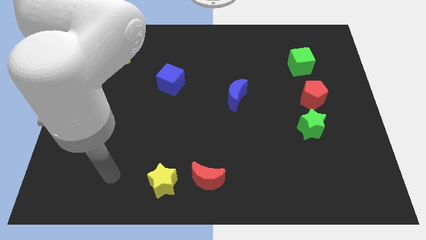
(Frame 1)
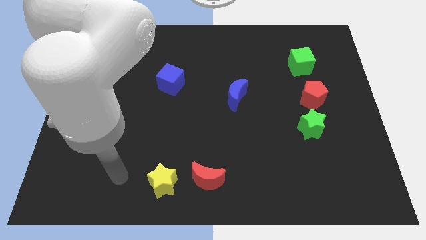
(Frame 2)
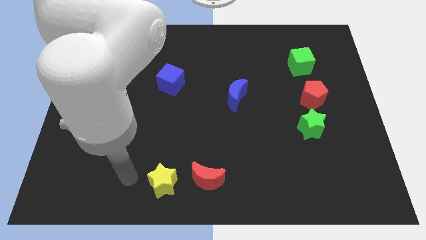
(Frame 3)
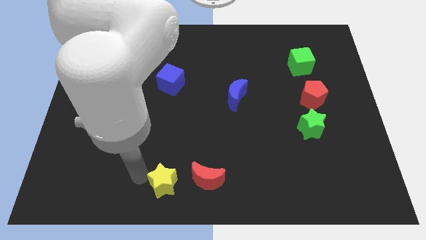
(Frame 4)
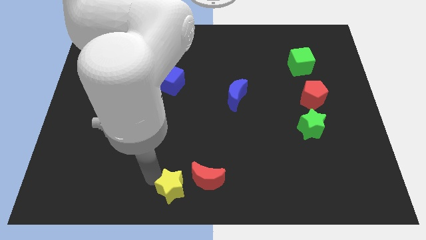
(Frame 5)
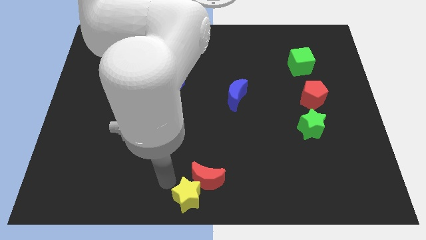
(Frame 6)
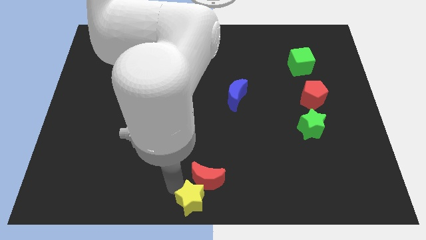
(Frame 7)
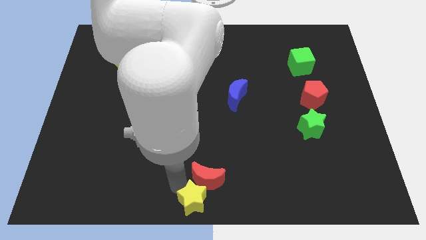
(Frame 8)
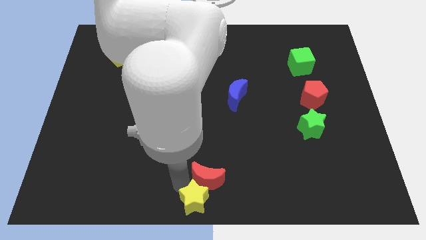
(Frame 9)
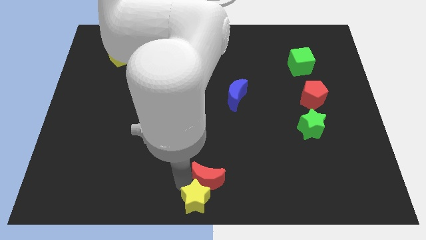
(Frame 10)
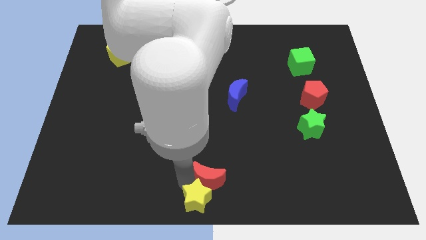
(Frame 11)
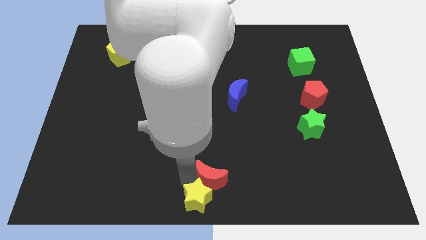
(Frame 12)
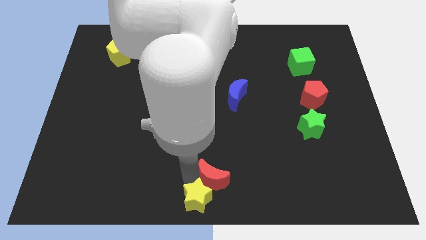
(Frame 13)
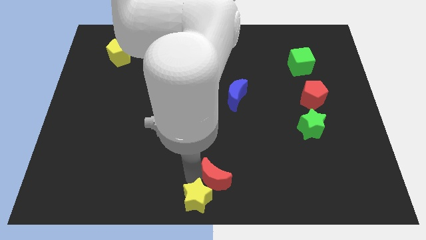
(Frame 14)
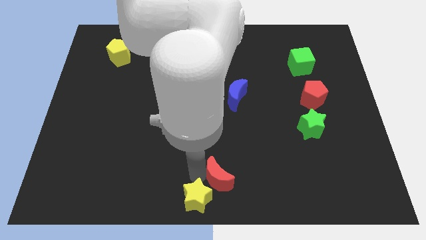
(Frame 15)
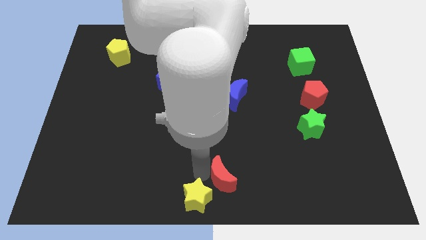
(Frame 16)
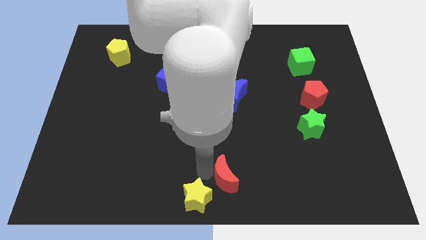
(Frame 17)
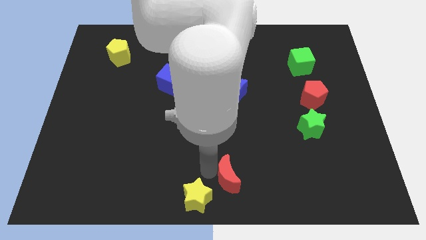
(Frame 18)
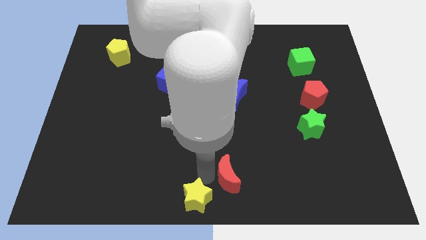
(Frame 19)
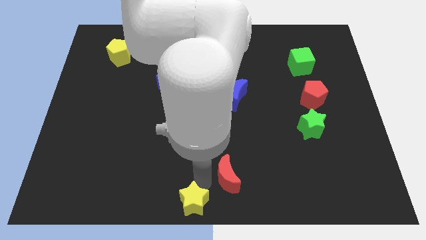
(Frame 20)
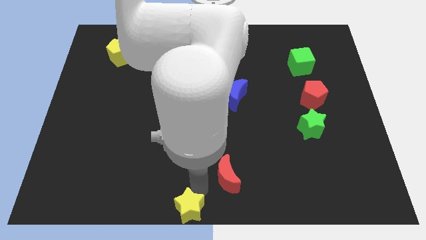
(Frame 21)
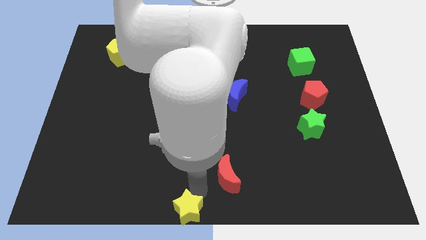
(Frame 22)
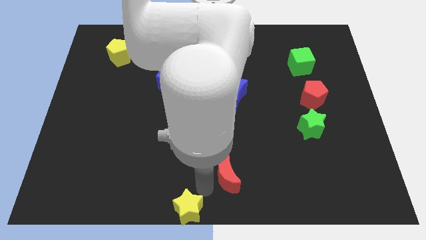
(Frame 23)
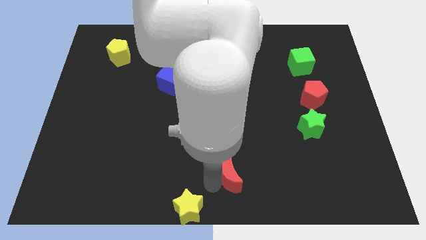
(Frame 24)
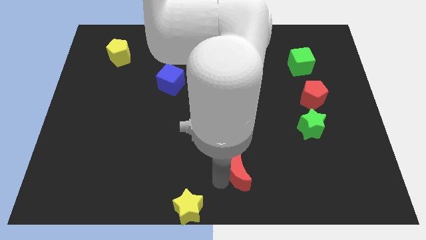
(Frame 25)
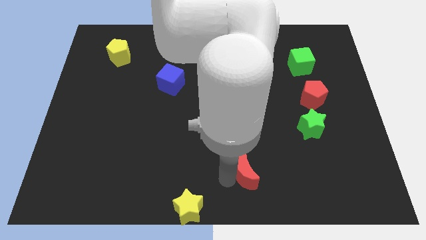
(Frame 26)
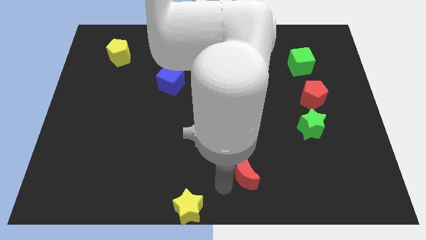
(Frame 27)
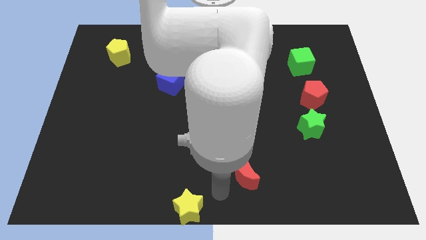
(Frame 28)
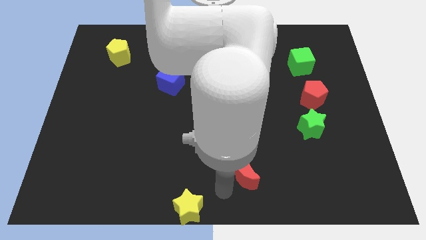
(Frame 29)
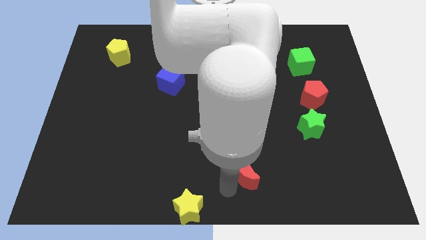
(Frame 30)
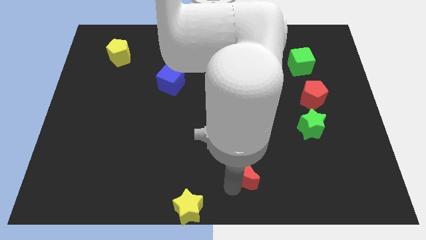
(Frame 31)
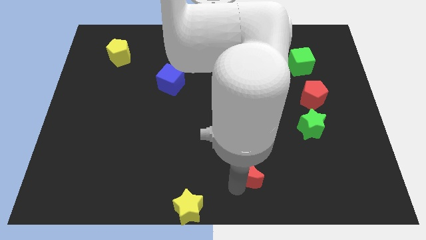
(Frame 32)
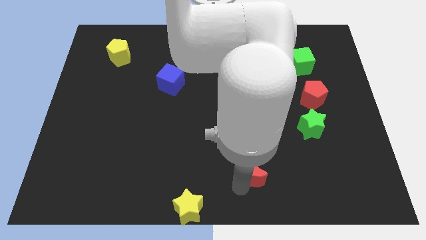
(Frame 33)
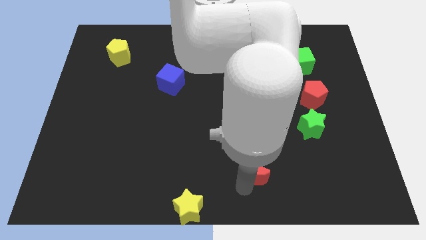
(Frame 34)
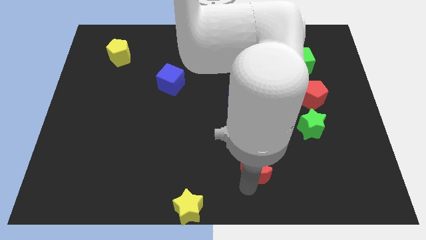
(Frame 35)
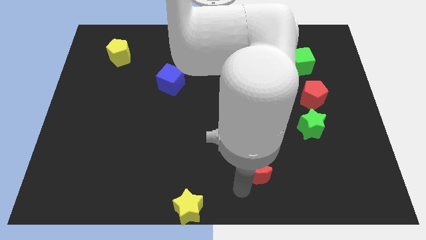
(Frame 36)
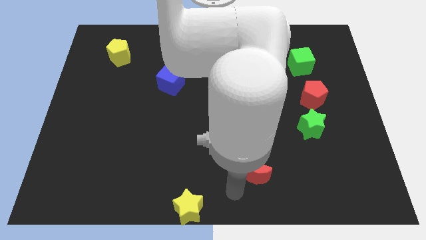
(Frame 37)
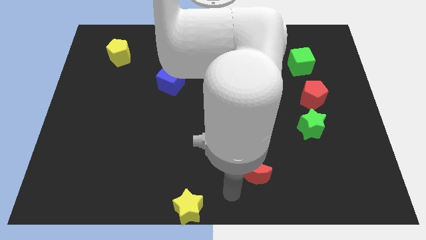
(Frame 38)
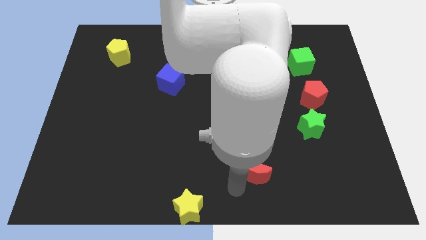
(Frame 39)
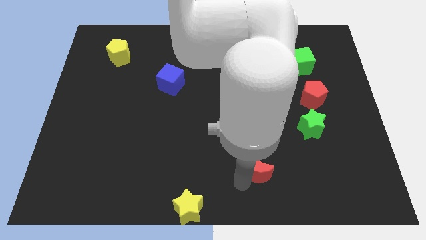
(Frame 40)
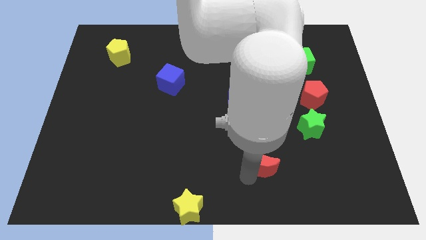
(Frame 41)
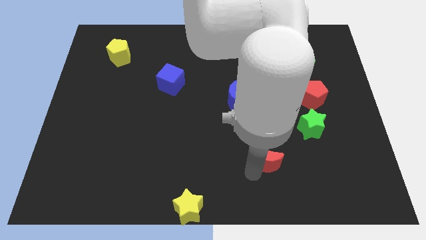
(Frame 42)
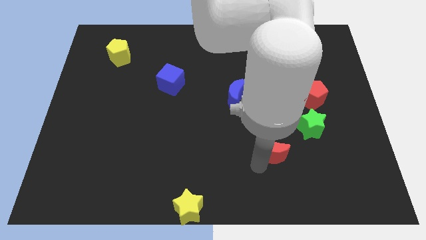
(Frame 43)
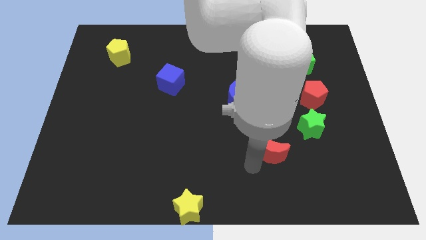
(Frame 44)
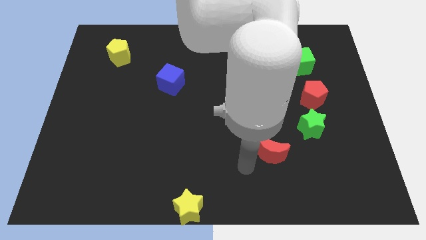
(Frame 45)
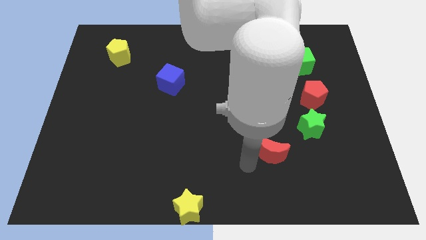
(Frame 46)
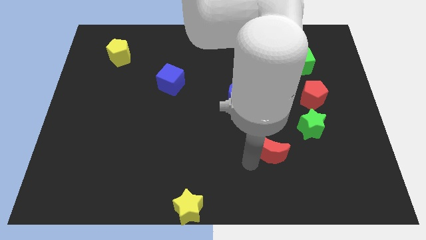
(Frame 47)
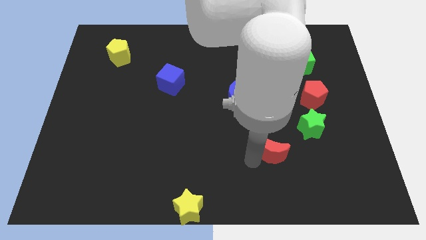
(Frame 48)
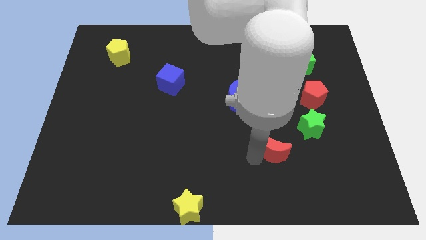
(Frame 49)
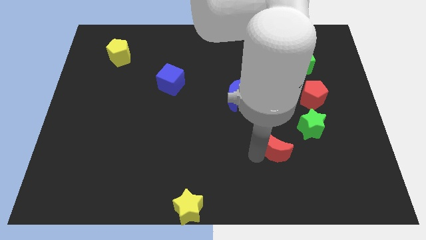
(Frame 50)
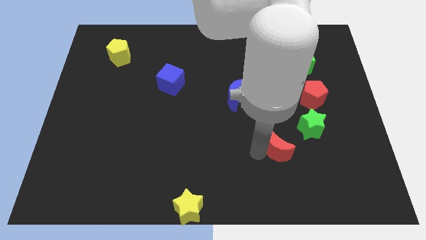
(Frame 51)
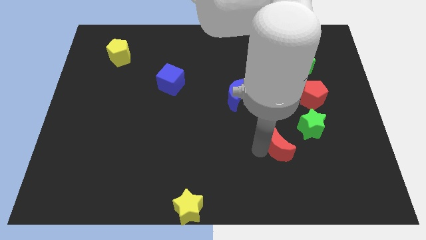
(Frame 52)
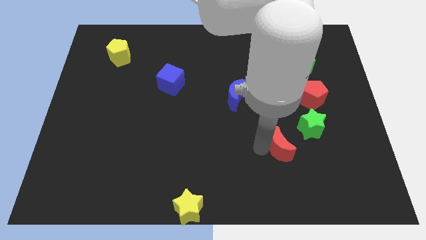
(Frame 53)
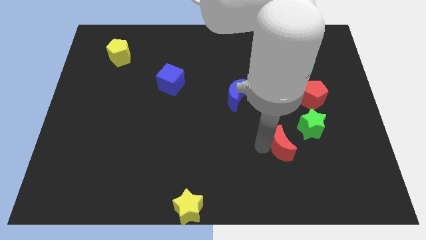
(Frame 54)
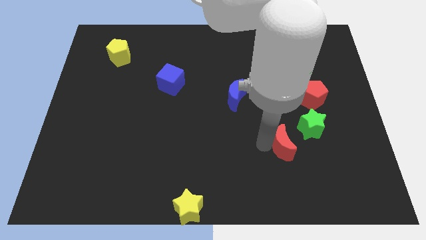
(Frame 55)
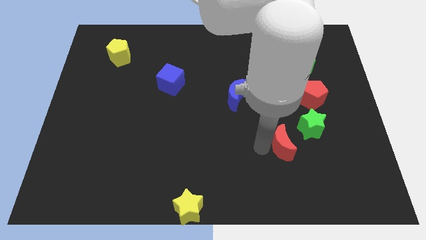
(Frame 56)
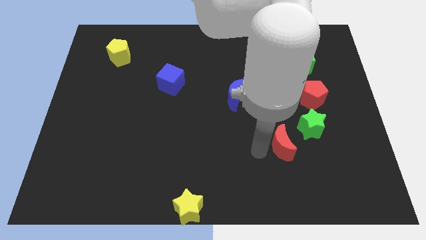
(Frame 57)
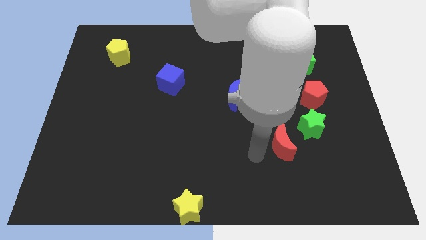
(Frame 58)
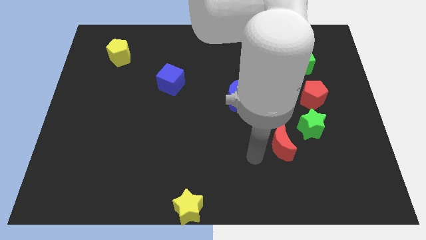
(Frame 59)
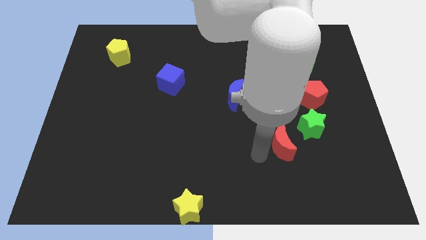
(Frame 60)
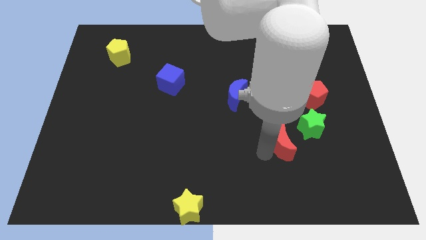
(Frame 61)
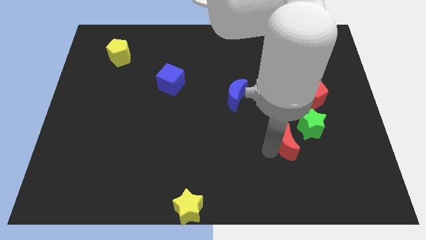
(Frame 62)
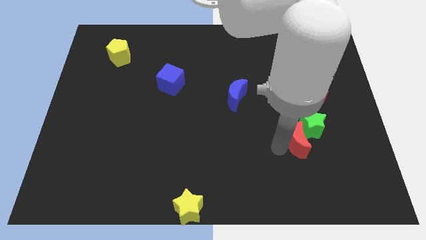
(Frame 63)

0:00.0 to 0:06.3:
move the red moon close to the green star

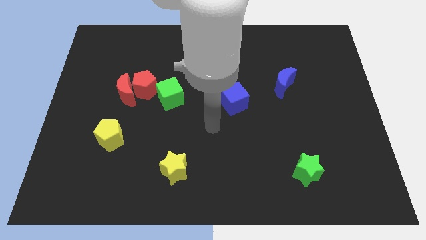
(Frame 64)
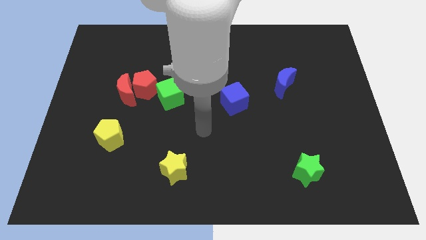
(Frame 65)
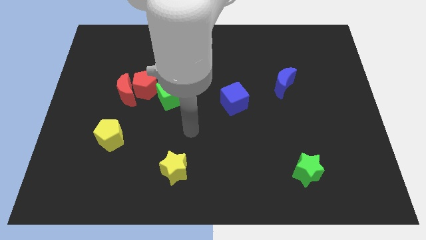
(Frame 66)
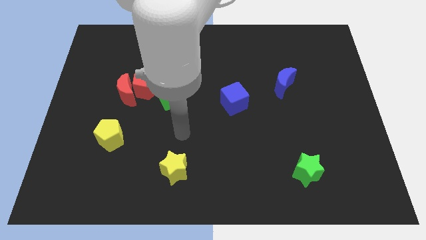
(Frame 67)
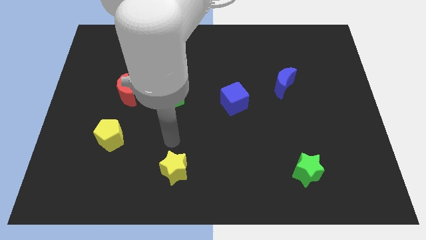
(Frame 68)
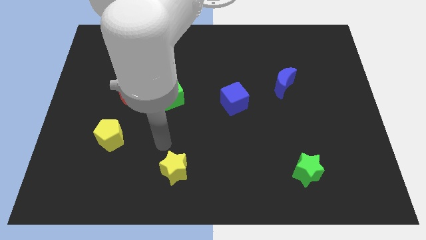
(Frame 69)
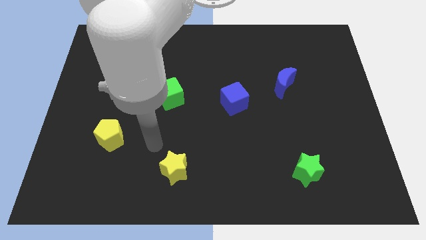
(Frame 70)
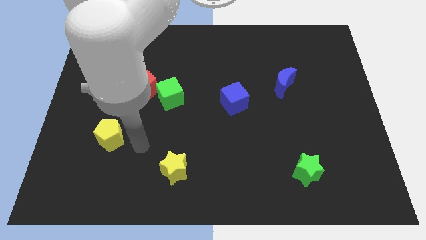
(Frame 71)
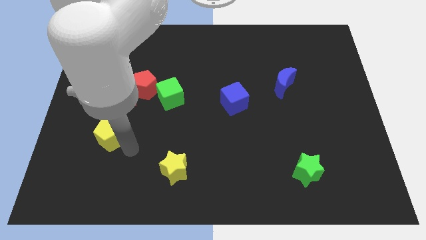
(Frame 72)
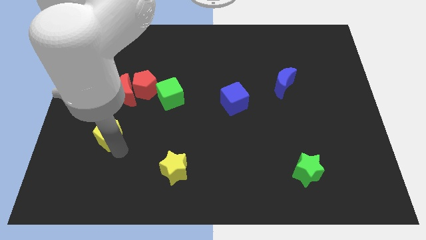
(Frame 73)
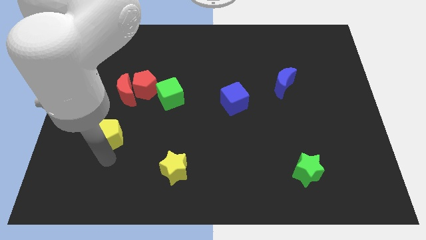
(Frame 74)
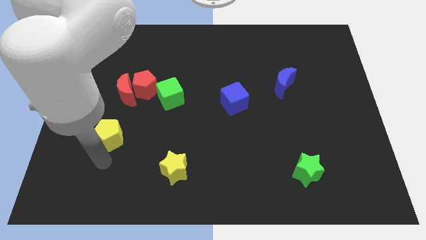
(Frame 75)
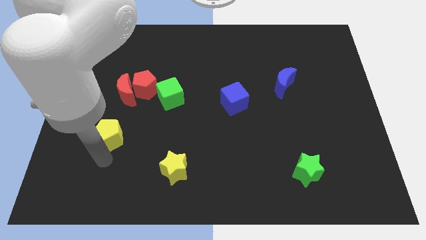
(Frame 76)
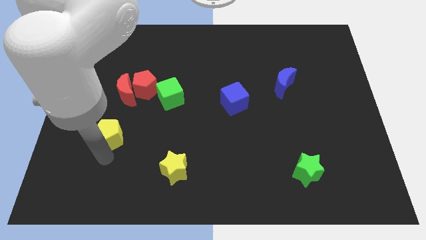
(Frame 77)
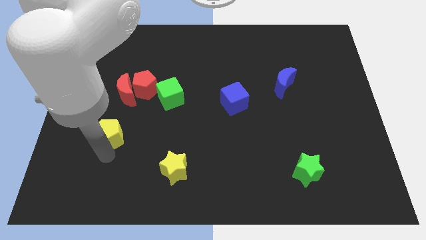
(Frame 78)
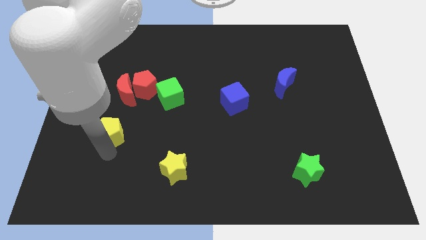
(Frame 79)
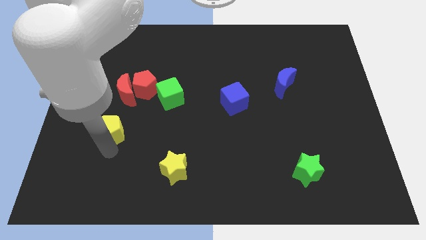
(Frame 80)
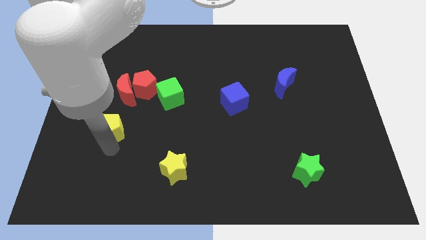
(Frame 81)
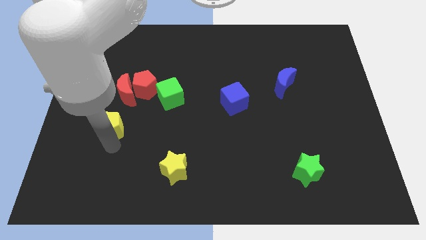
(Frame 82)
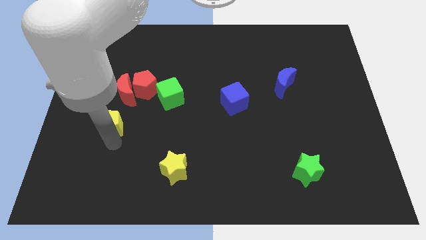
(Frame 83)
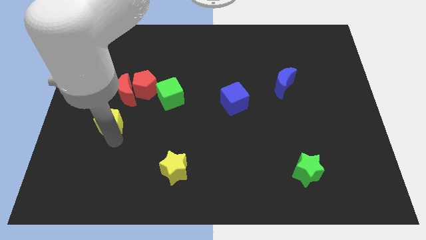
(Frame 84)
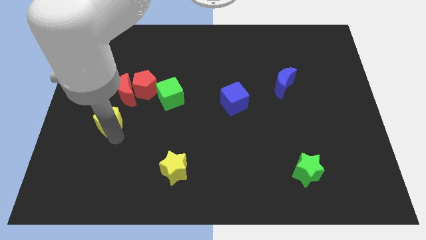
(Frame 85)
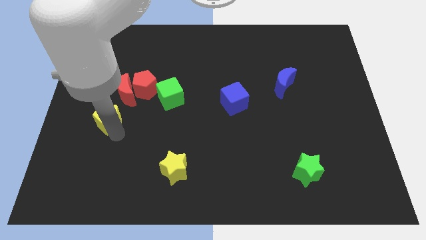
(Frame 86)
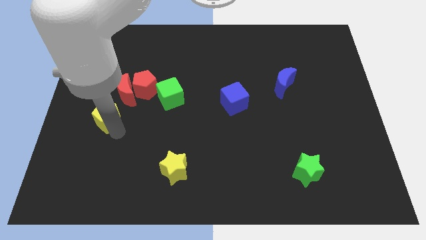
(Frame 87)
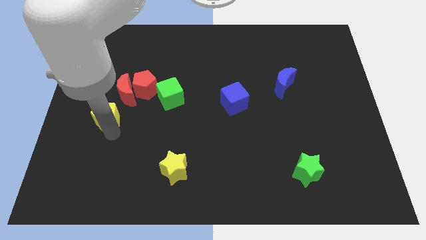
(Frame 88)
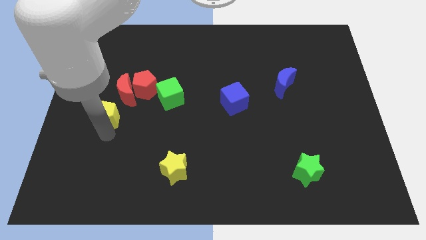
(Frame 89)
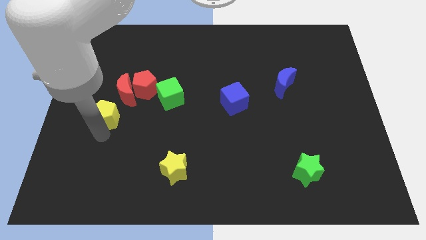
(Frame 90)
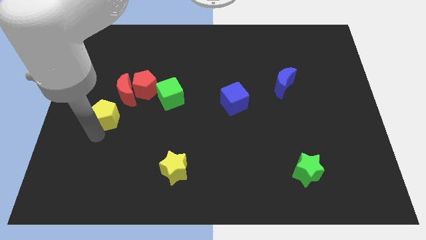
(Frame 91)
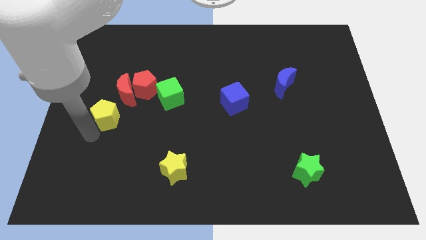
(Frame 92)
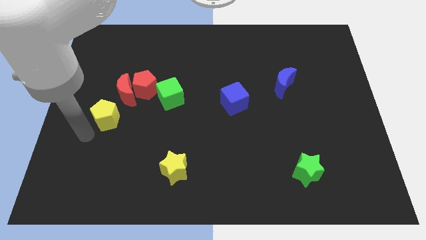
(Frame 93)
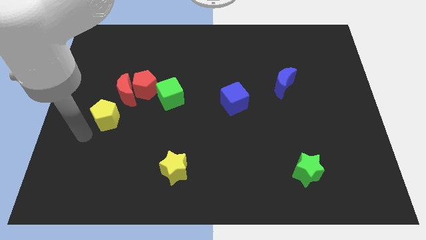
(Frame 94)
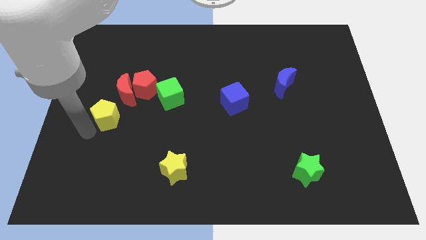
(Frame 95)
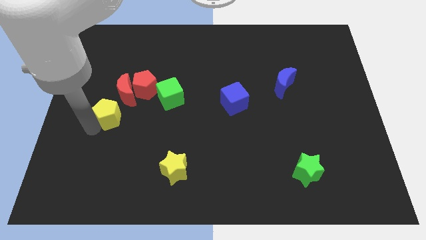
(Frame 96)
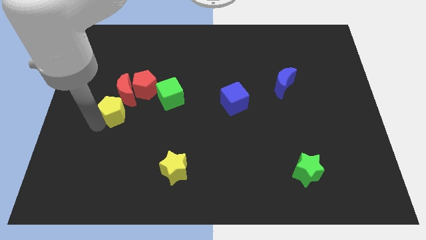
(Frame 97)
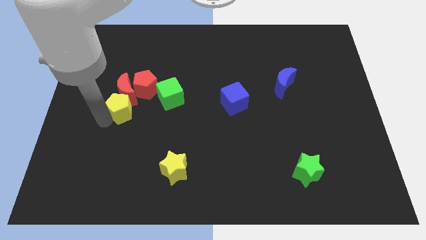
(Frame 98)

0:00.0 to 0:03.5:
put the yellow pentagon towards the red moon
